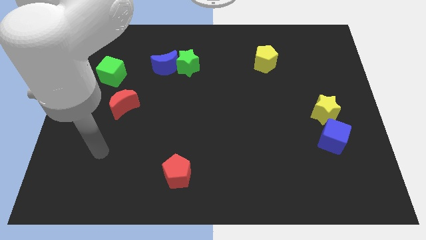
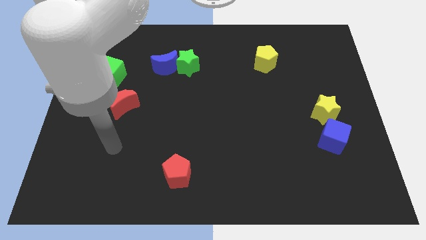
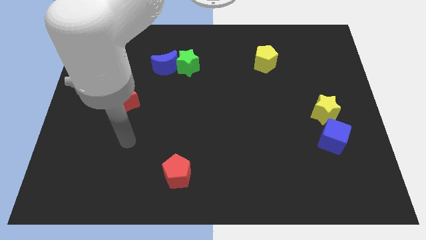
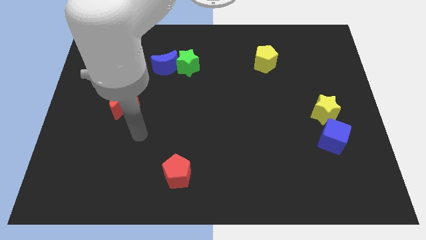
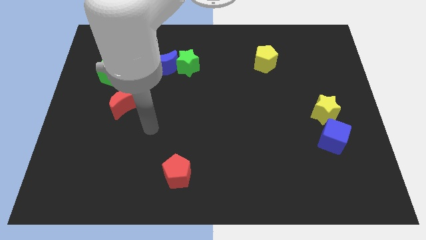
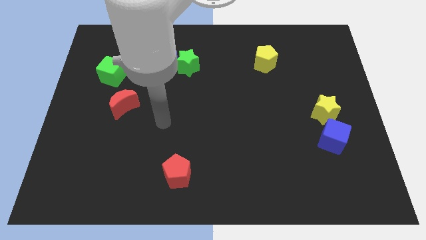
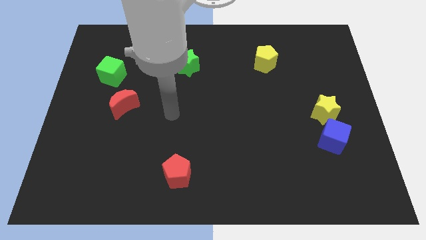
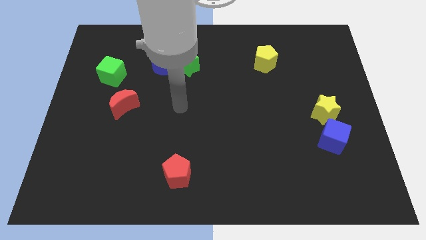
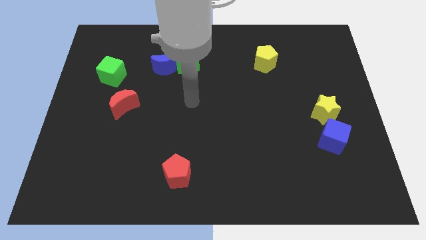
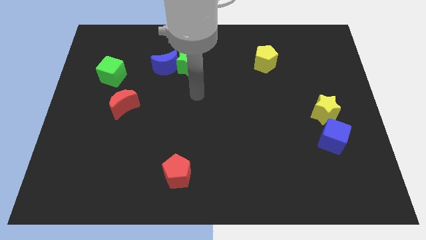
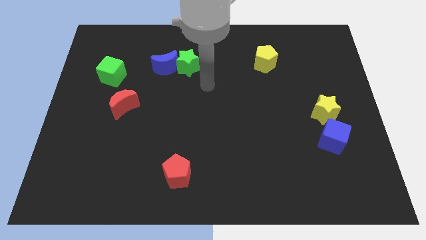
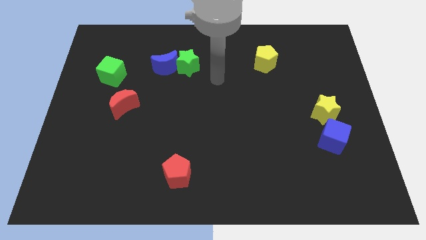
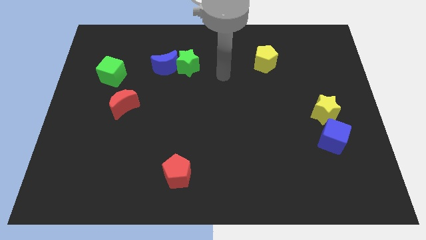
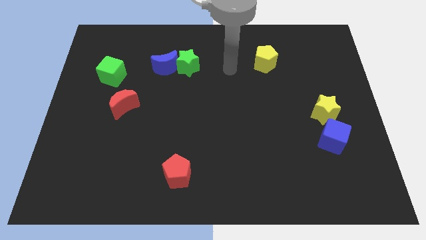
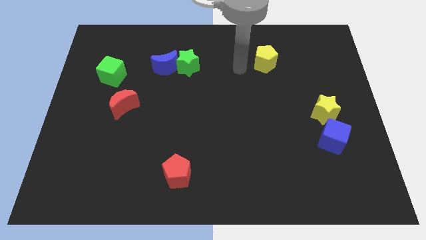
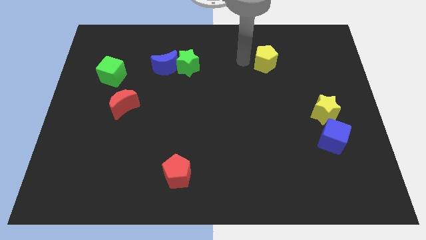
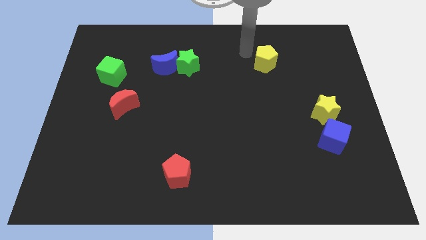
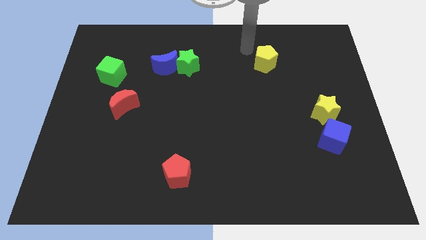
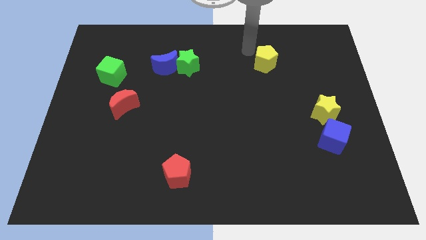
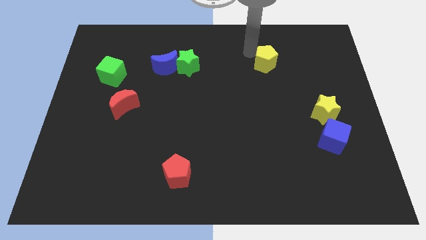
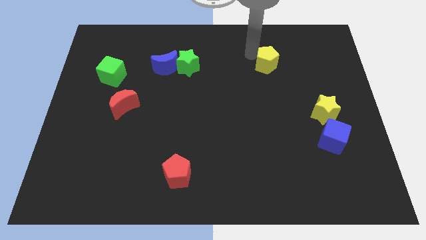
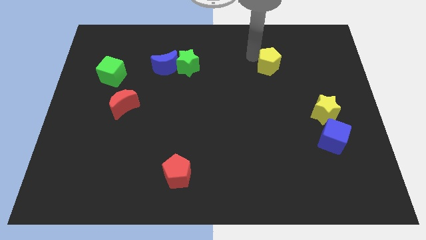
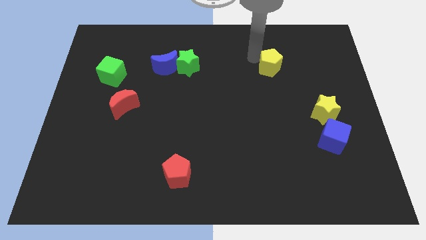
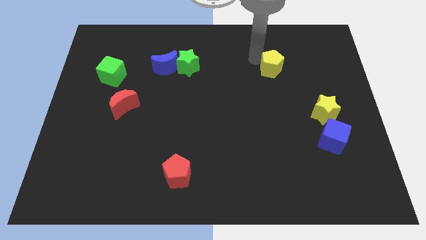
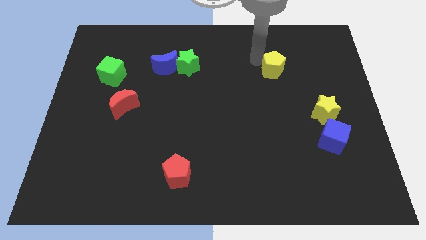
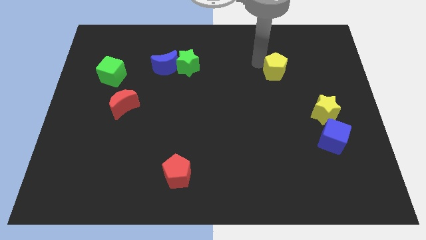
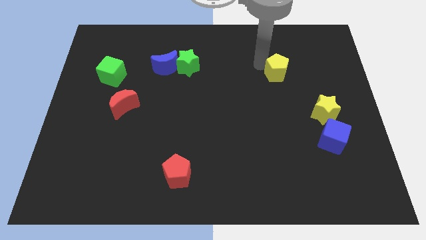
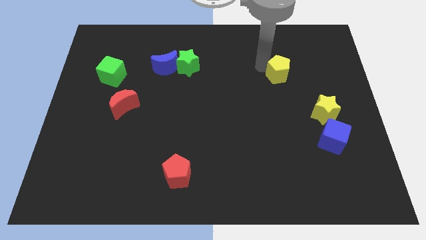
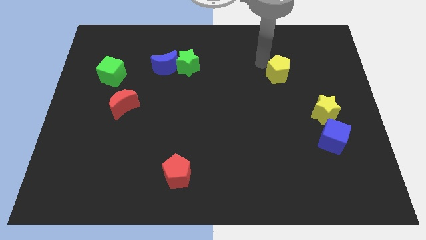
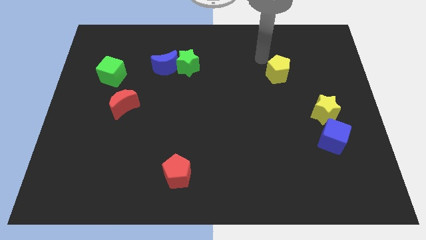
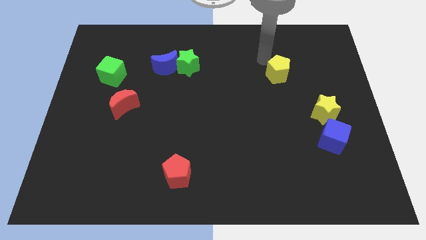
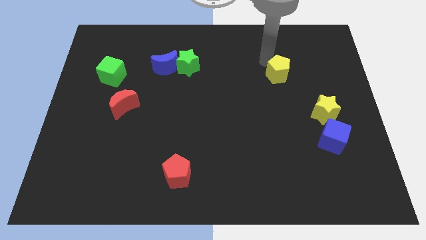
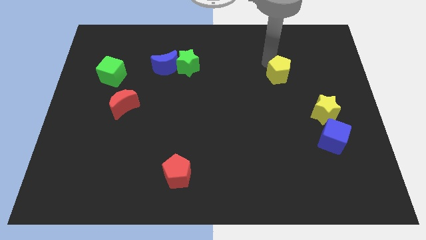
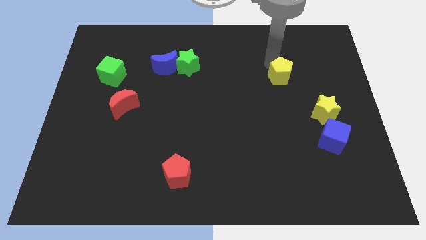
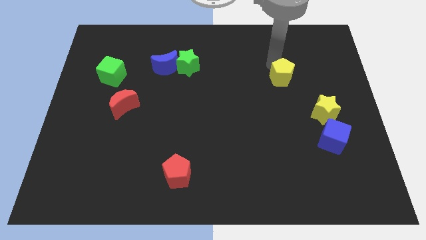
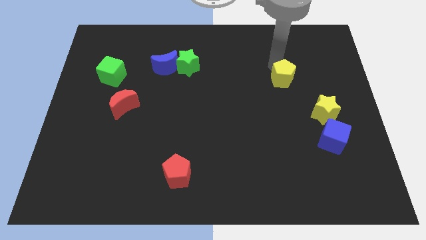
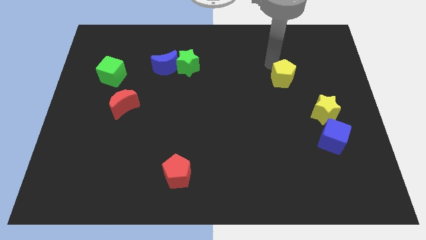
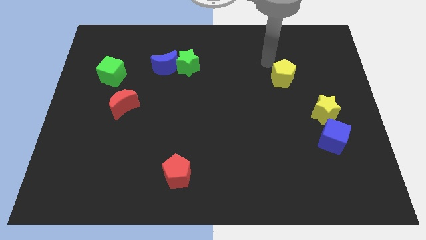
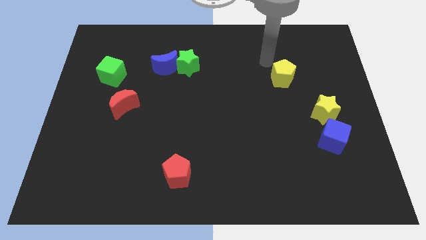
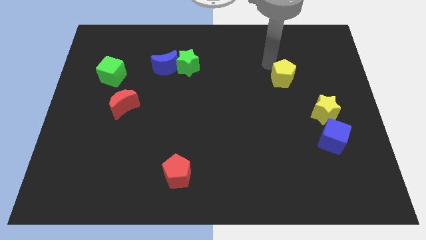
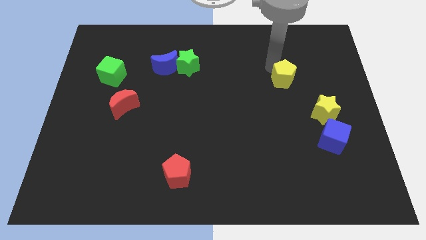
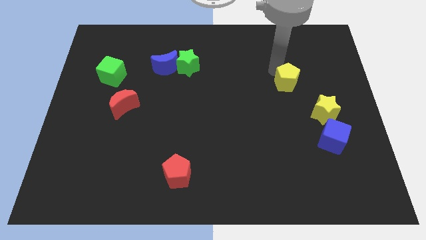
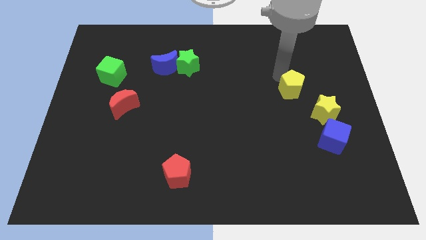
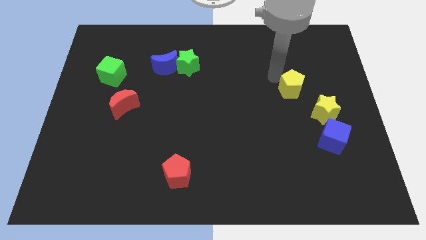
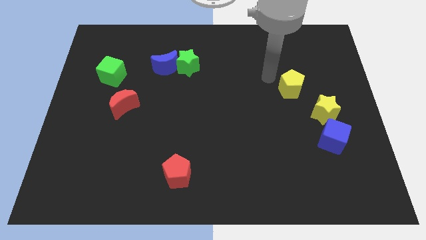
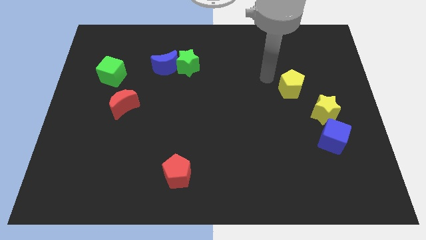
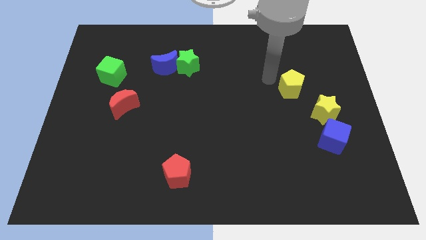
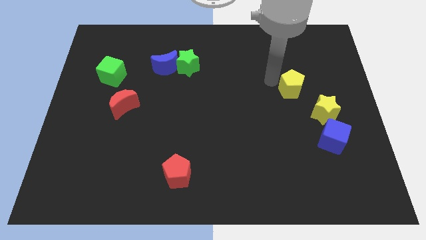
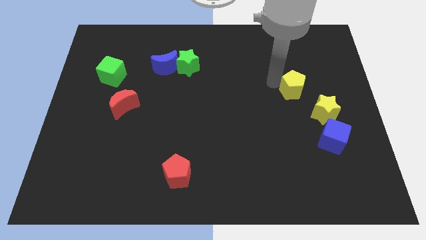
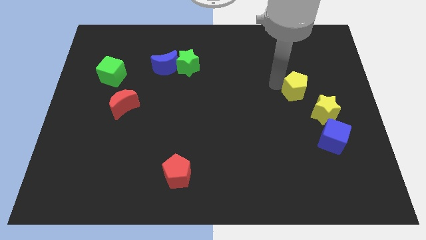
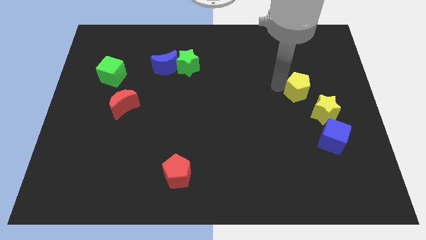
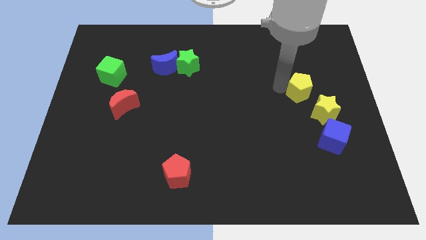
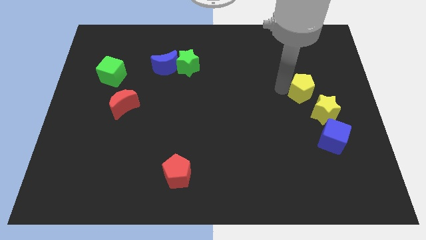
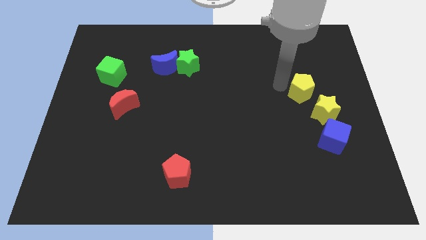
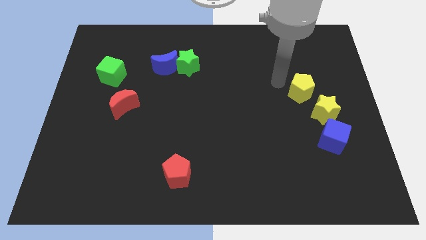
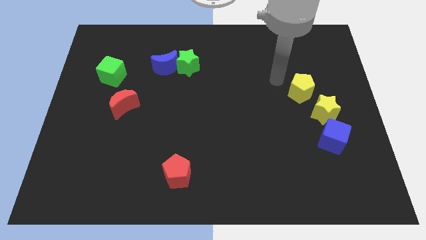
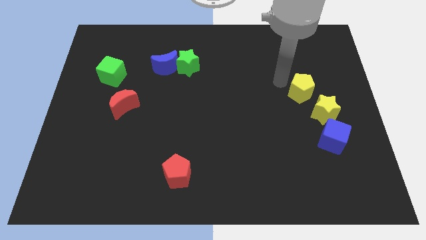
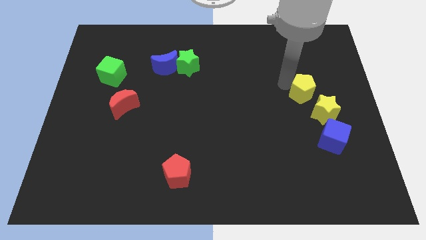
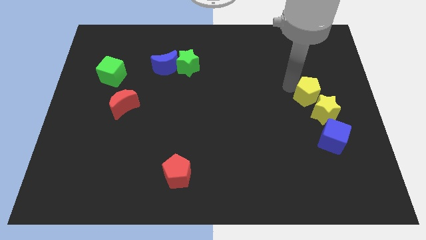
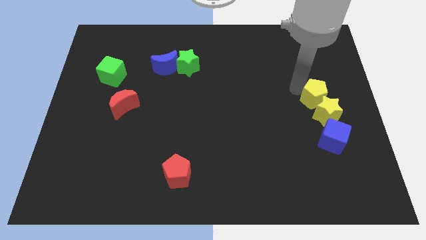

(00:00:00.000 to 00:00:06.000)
slide the yellow pentagon close to the yellow star

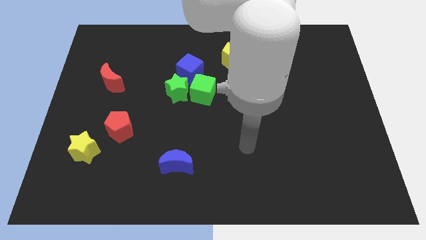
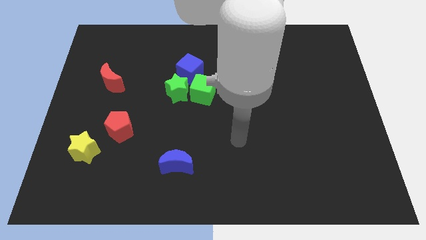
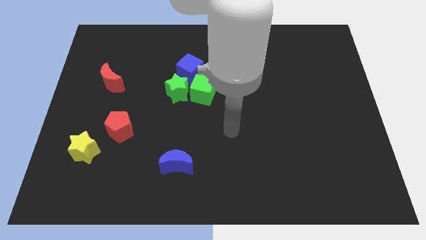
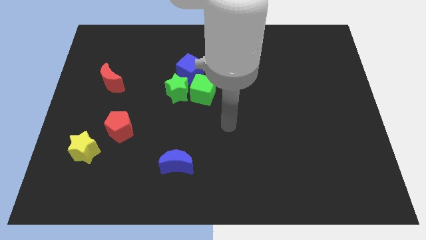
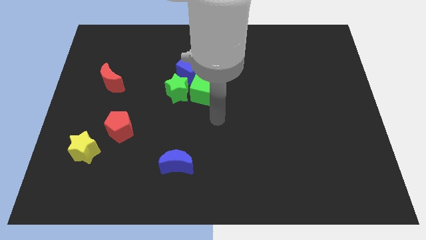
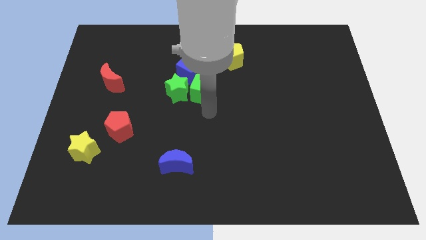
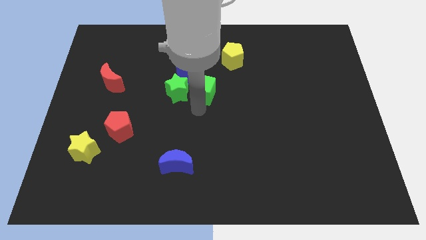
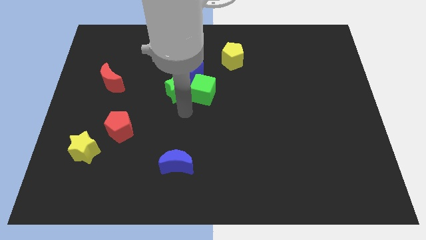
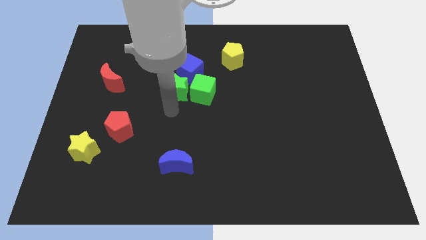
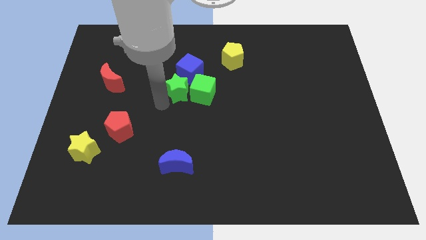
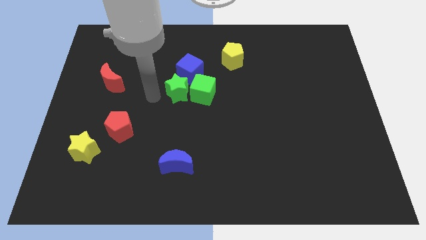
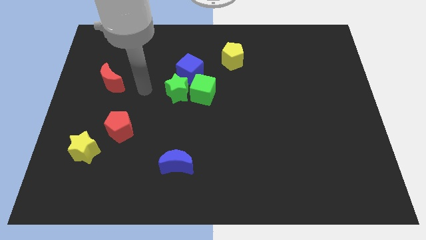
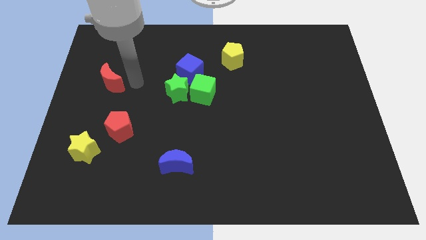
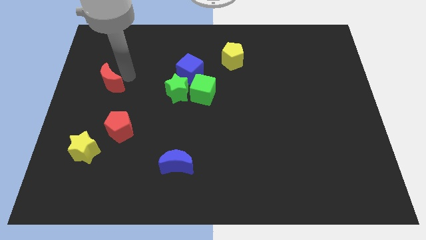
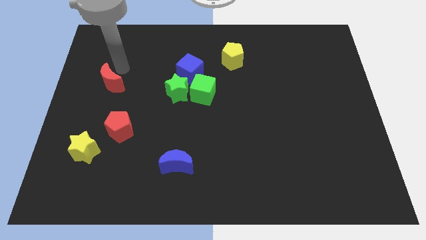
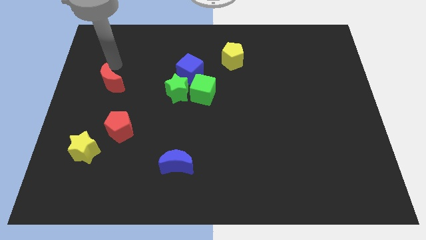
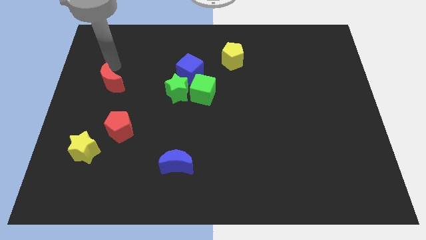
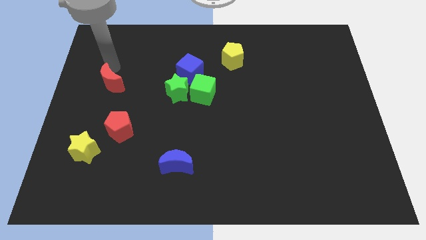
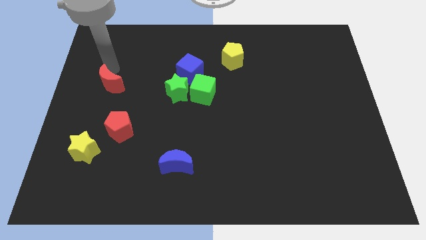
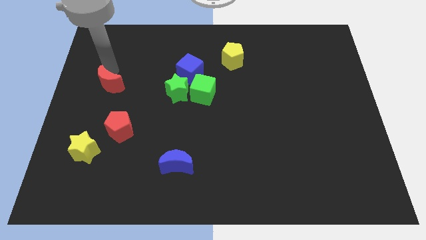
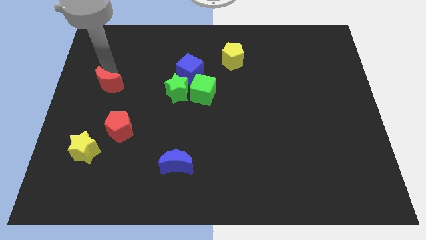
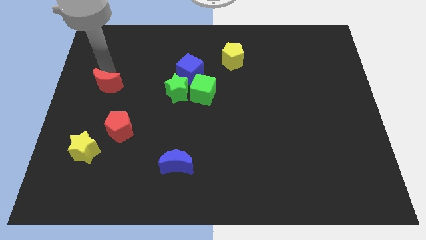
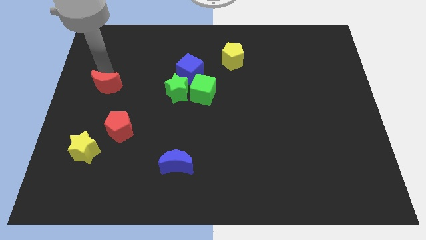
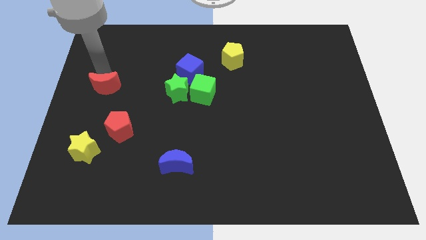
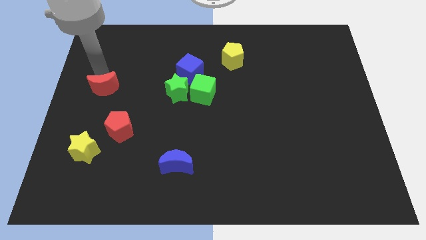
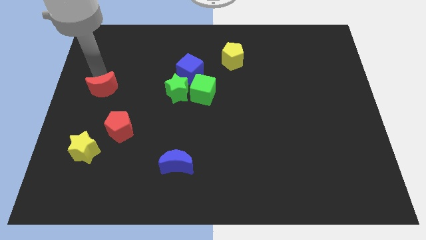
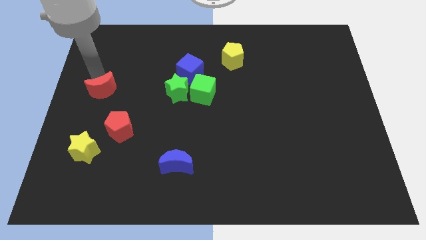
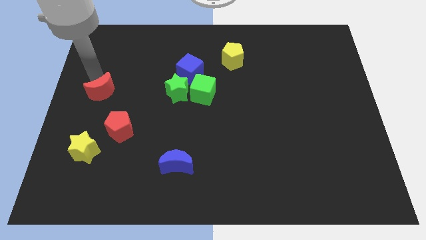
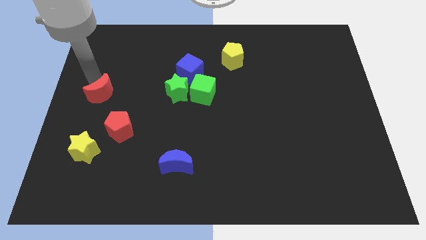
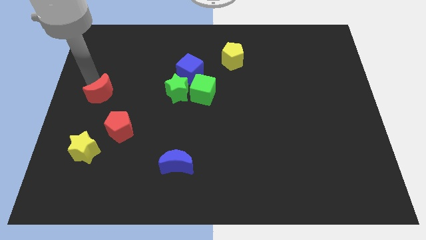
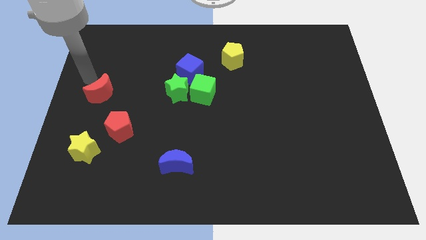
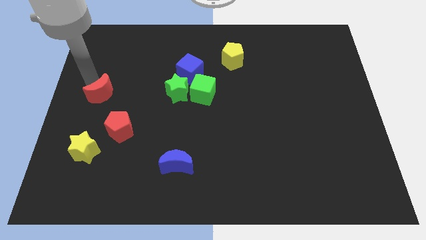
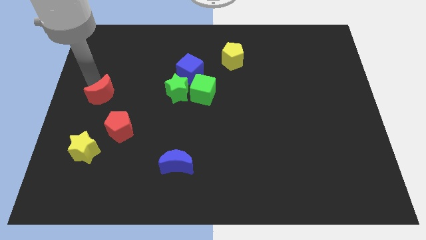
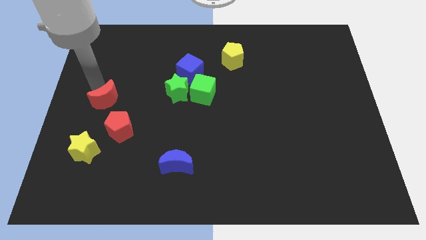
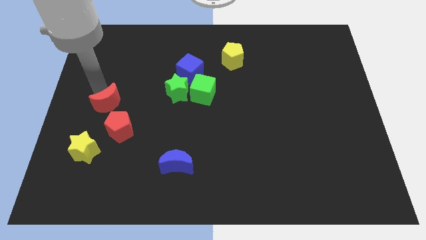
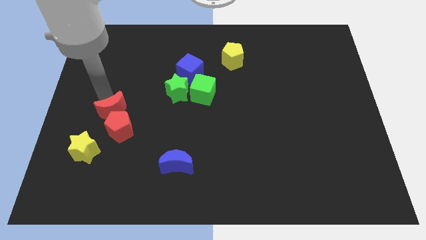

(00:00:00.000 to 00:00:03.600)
slide the red moon to the red pentagon
